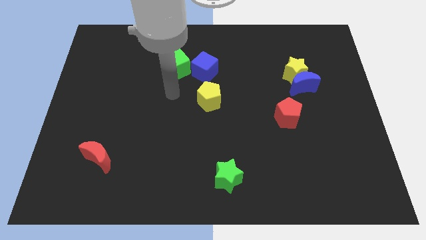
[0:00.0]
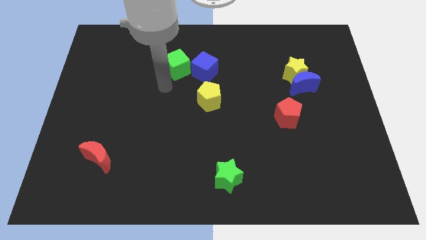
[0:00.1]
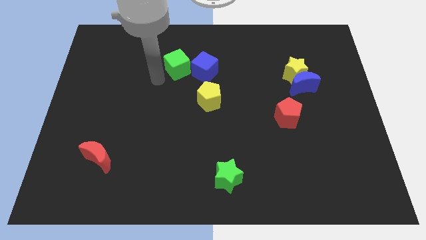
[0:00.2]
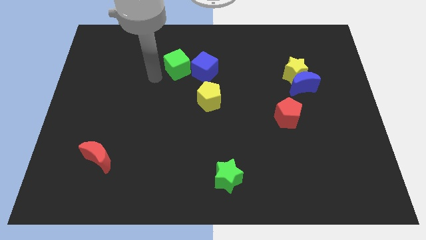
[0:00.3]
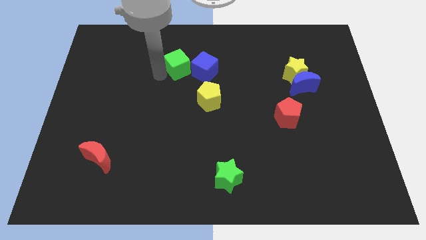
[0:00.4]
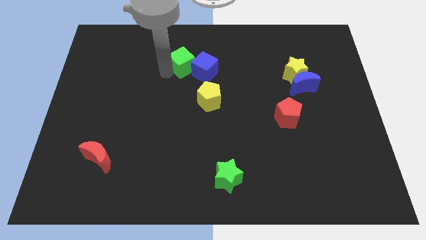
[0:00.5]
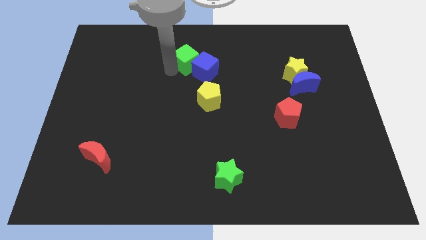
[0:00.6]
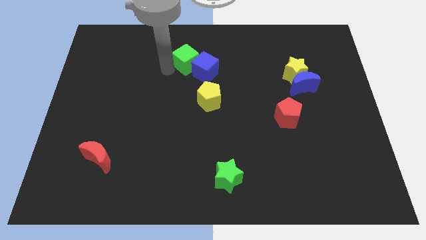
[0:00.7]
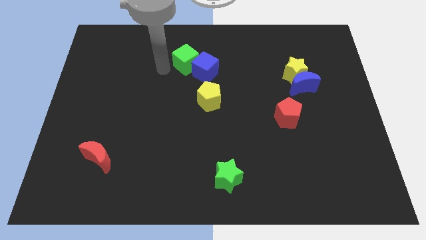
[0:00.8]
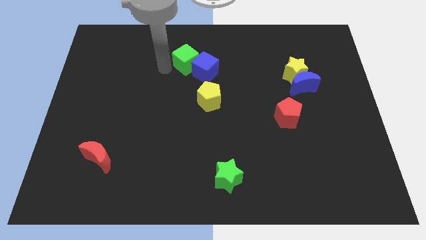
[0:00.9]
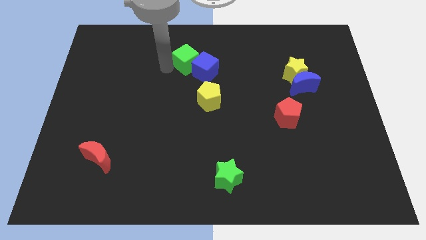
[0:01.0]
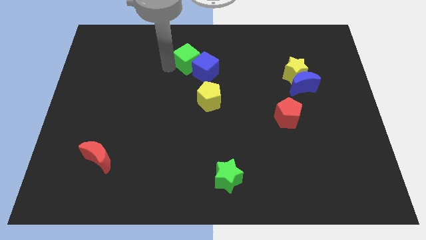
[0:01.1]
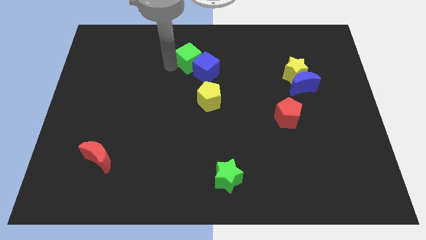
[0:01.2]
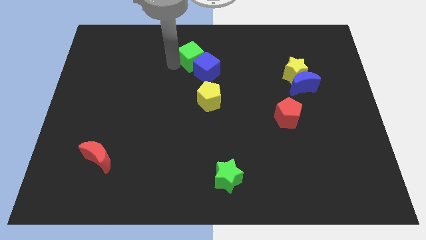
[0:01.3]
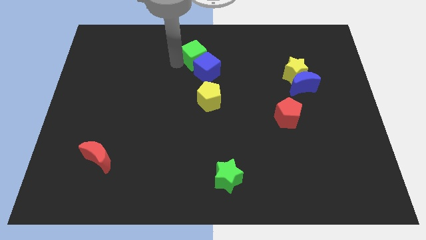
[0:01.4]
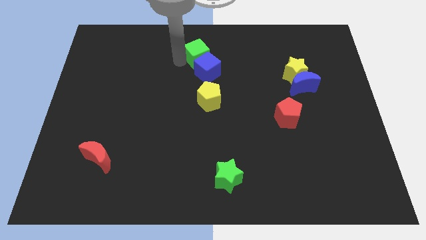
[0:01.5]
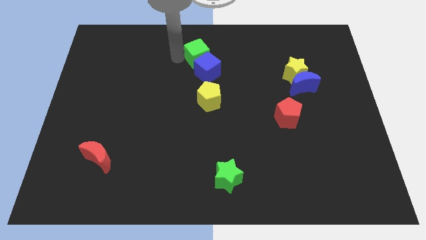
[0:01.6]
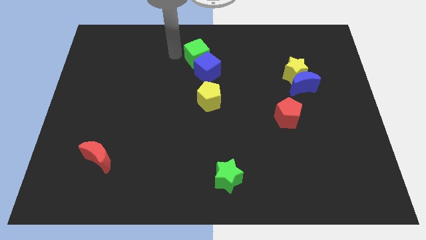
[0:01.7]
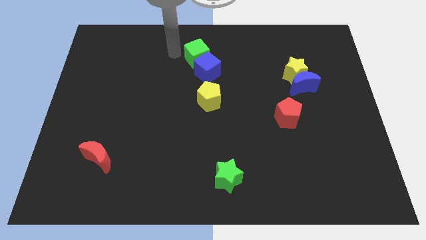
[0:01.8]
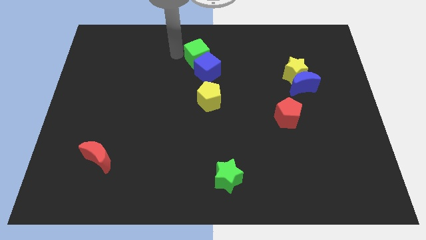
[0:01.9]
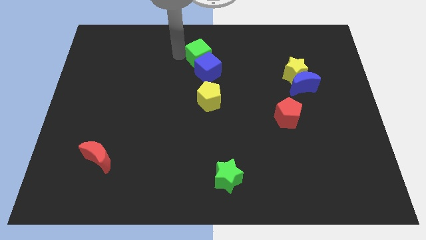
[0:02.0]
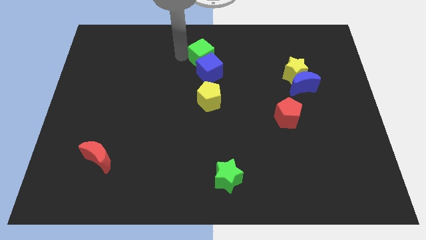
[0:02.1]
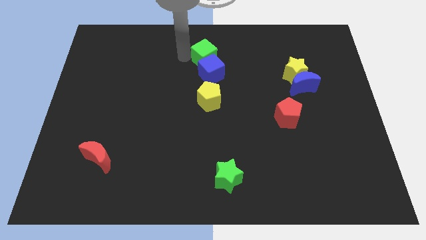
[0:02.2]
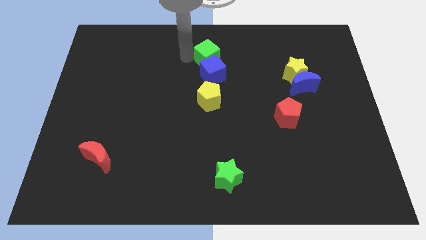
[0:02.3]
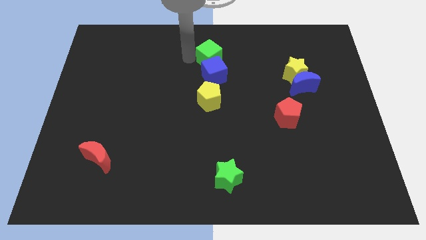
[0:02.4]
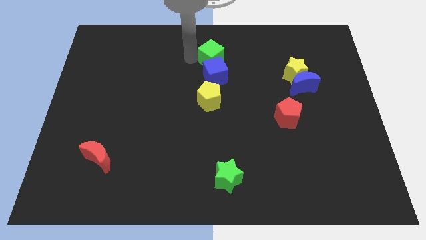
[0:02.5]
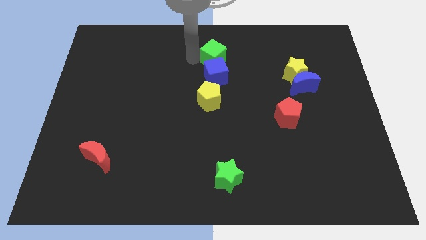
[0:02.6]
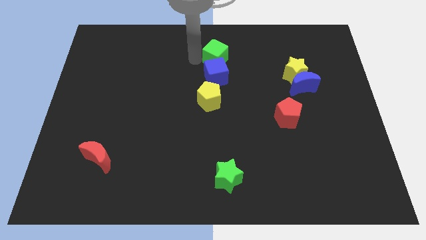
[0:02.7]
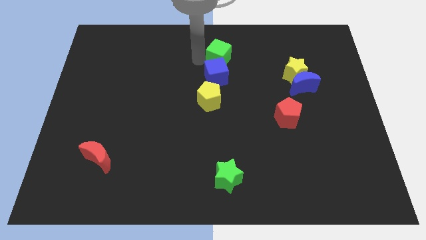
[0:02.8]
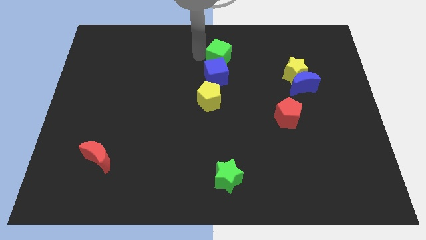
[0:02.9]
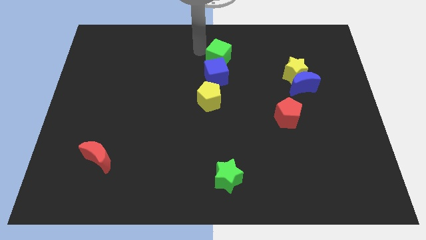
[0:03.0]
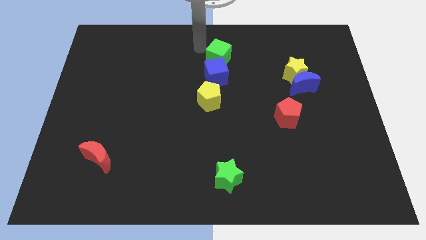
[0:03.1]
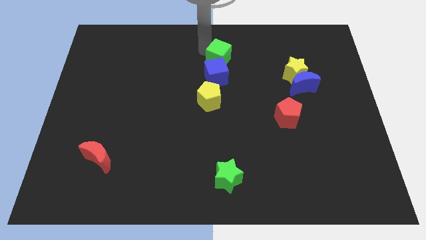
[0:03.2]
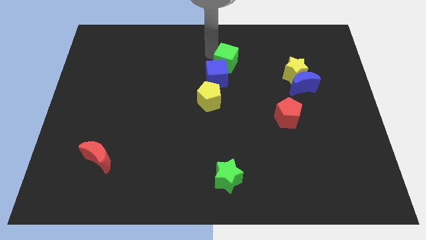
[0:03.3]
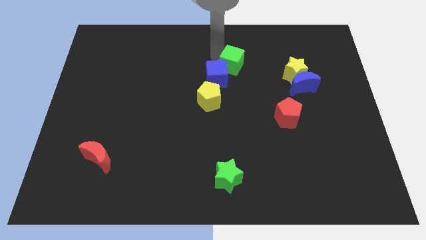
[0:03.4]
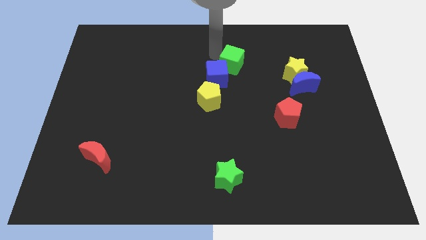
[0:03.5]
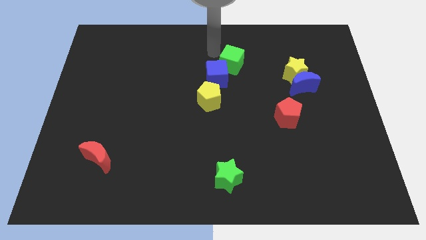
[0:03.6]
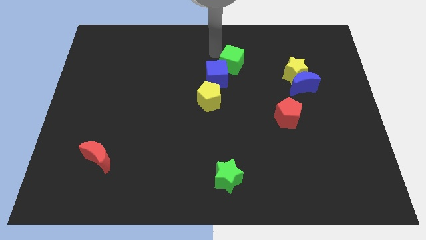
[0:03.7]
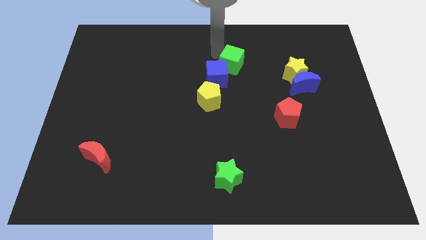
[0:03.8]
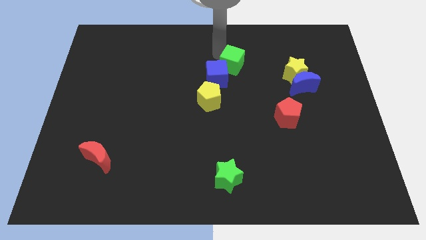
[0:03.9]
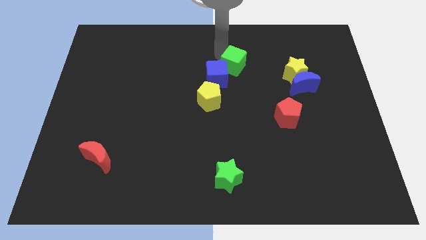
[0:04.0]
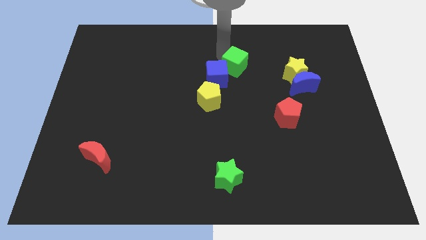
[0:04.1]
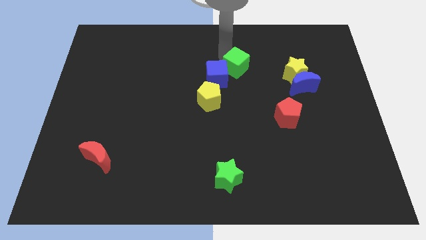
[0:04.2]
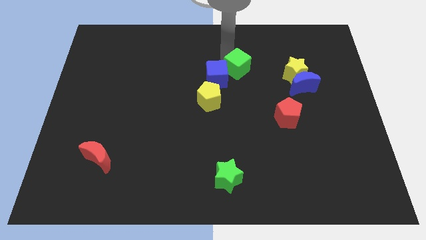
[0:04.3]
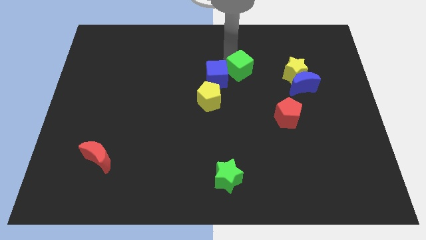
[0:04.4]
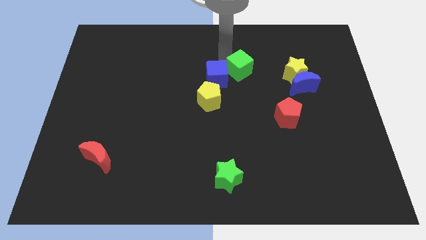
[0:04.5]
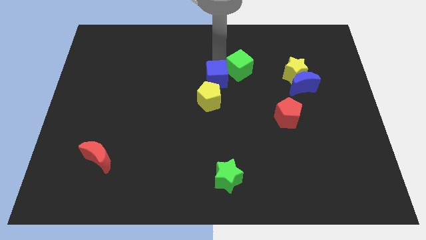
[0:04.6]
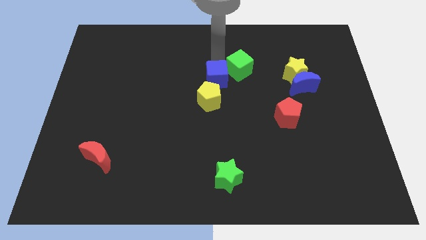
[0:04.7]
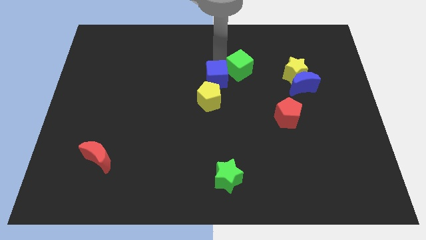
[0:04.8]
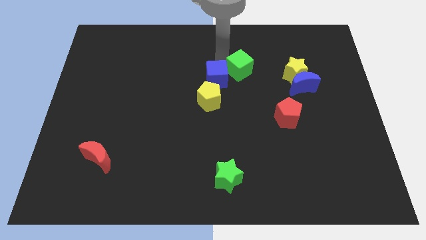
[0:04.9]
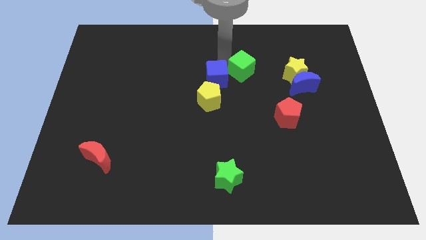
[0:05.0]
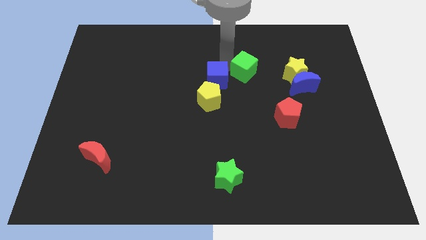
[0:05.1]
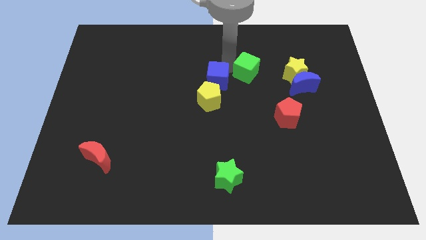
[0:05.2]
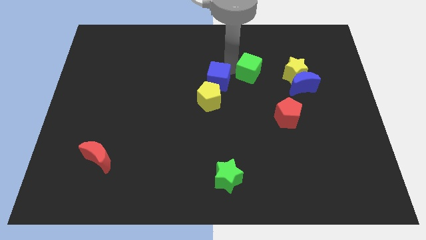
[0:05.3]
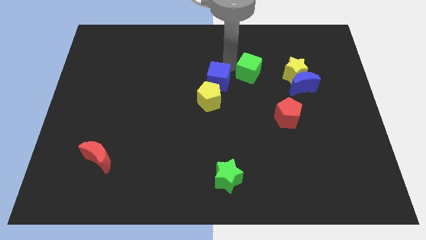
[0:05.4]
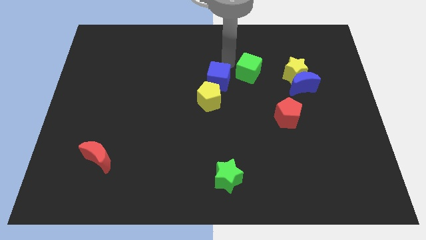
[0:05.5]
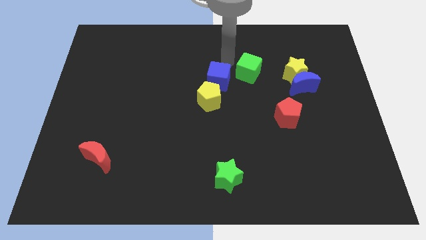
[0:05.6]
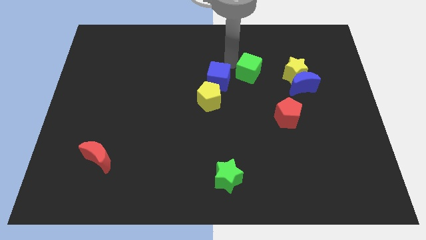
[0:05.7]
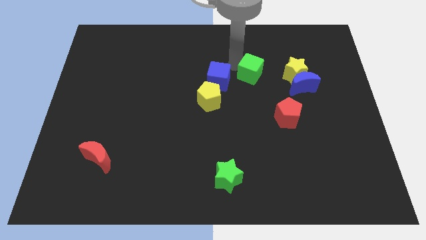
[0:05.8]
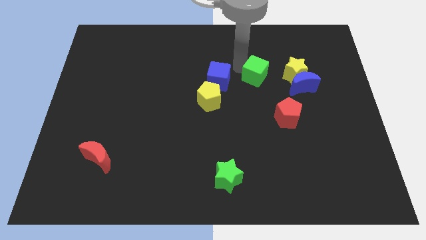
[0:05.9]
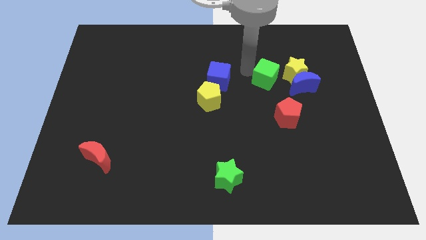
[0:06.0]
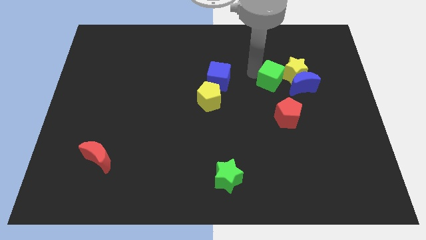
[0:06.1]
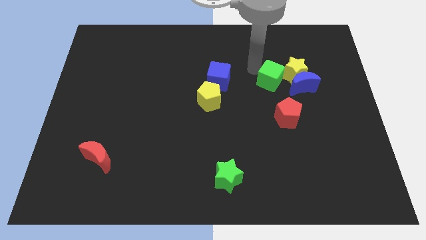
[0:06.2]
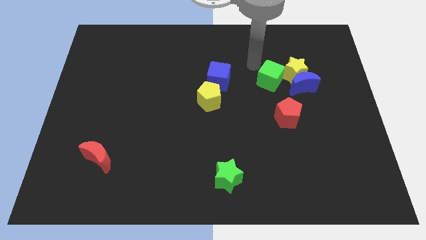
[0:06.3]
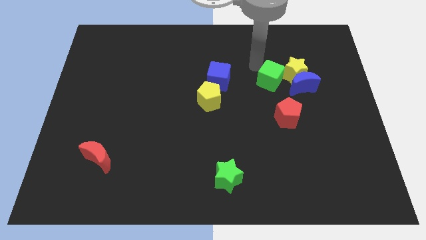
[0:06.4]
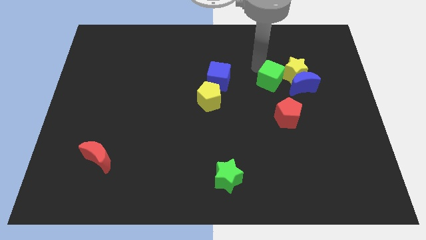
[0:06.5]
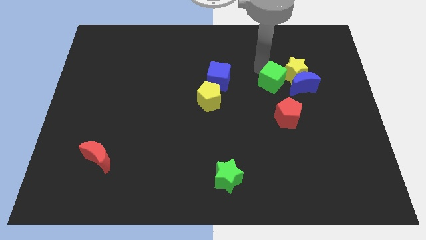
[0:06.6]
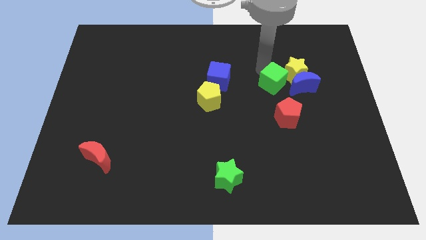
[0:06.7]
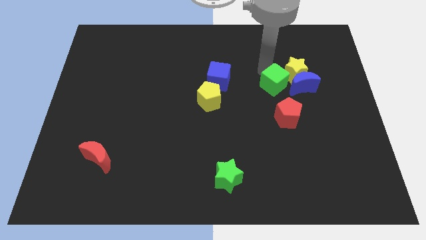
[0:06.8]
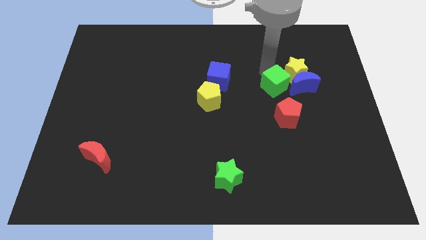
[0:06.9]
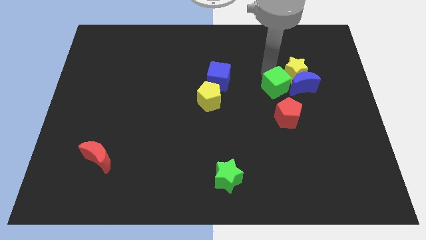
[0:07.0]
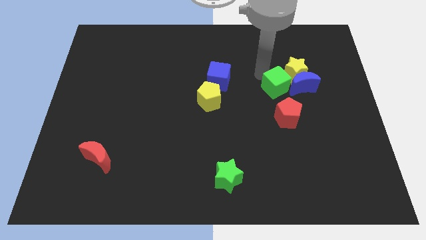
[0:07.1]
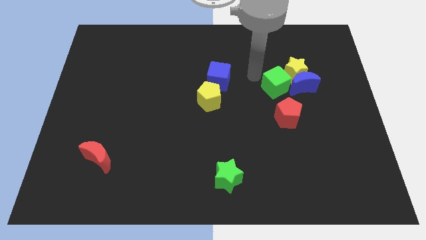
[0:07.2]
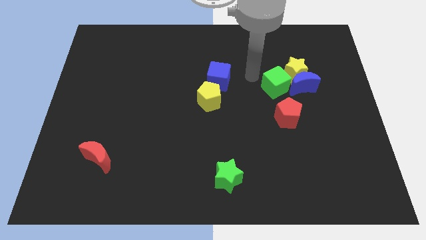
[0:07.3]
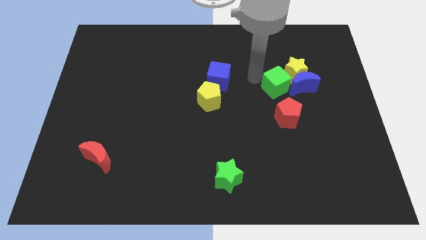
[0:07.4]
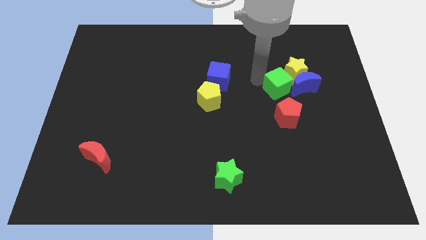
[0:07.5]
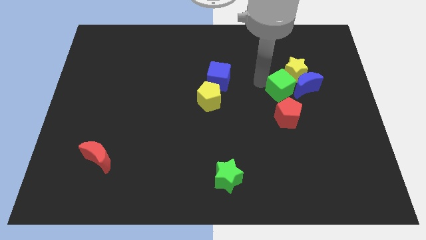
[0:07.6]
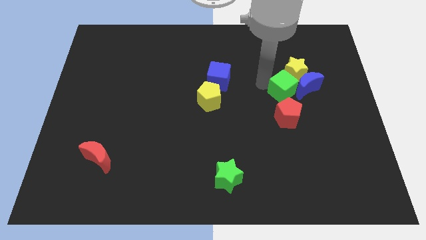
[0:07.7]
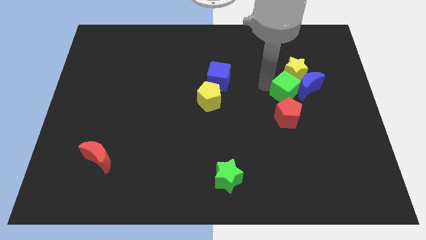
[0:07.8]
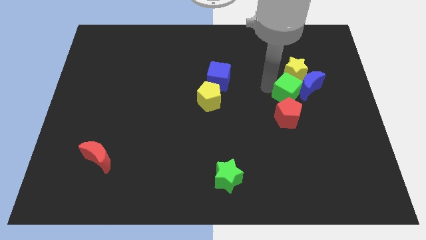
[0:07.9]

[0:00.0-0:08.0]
move the green cube to the top right side of the red pentagon

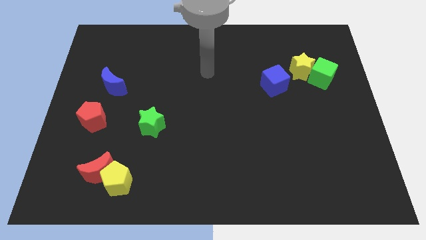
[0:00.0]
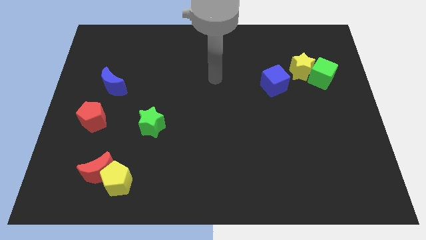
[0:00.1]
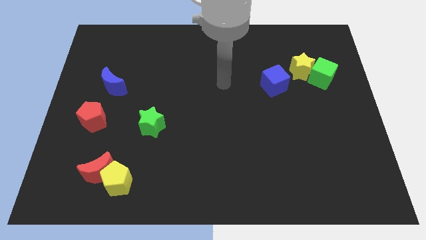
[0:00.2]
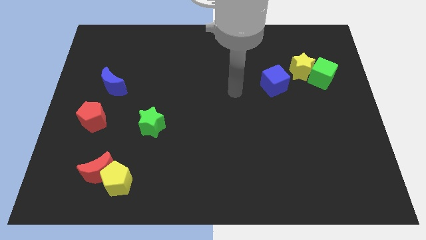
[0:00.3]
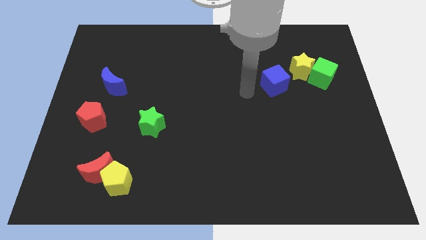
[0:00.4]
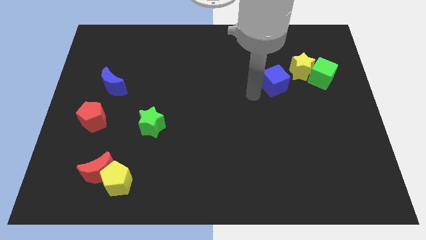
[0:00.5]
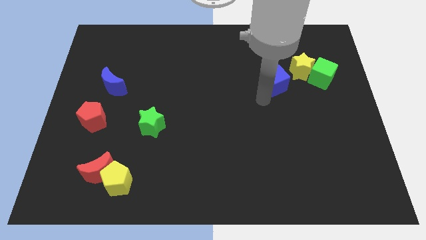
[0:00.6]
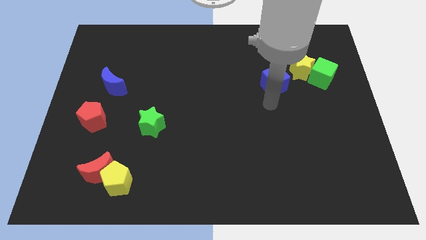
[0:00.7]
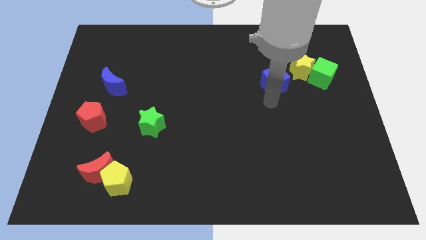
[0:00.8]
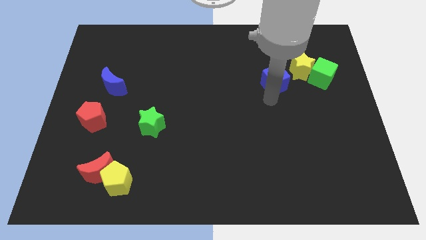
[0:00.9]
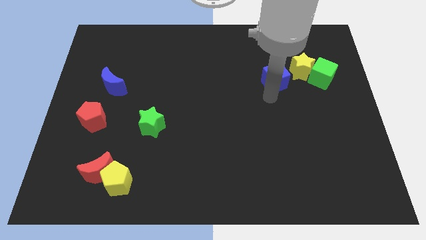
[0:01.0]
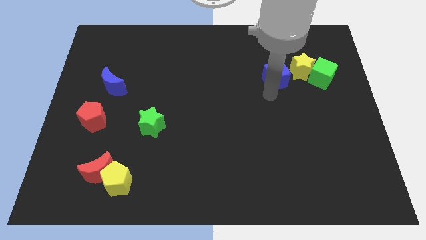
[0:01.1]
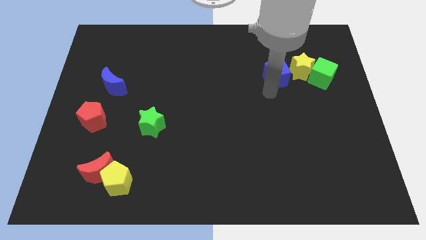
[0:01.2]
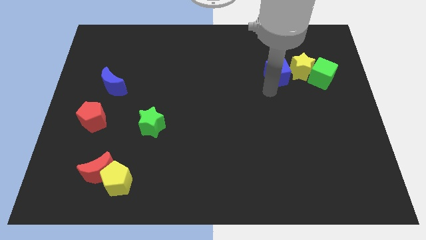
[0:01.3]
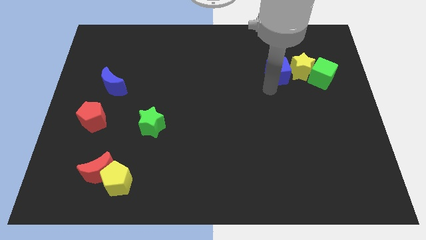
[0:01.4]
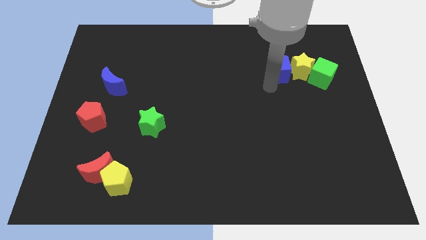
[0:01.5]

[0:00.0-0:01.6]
slide the blue cube to the top left side of the yellow star
